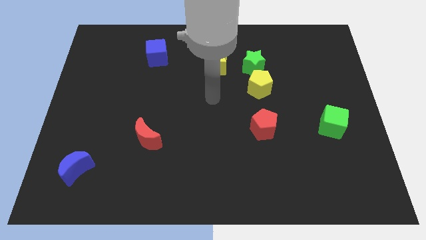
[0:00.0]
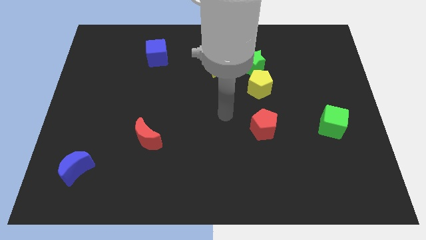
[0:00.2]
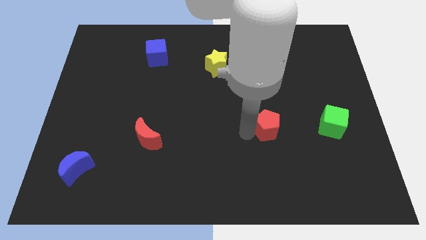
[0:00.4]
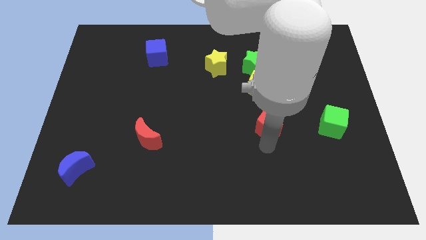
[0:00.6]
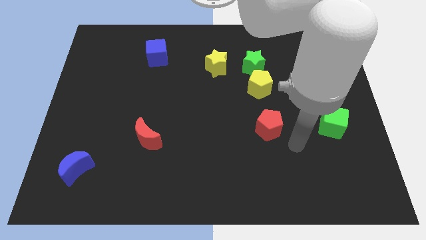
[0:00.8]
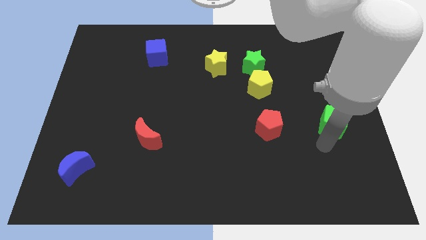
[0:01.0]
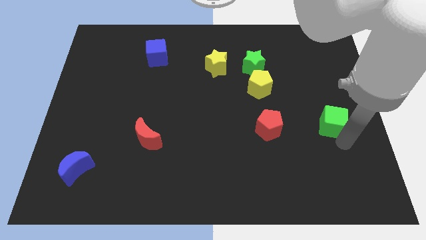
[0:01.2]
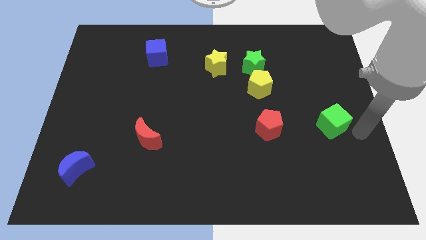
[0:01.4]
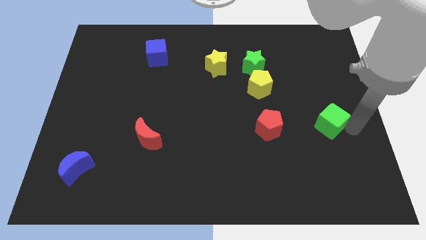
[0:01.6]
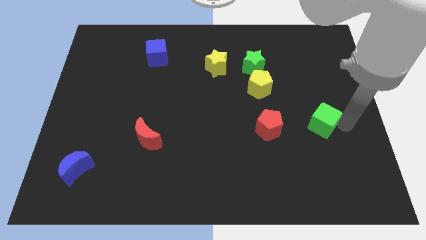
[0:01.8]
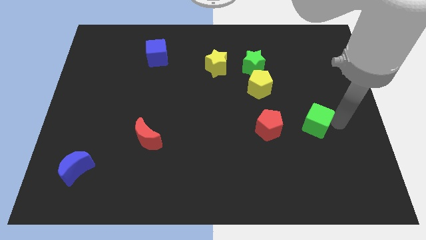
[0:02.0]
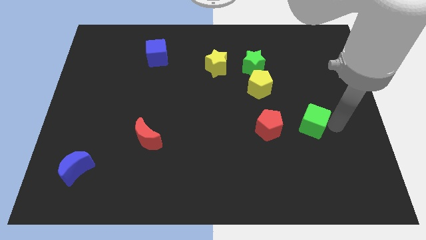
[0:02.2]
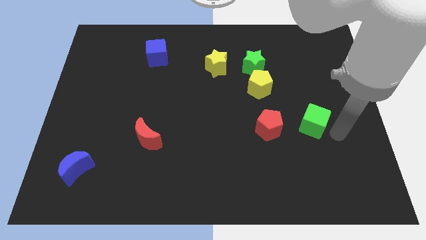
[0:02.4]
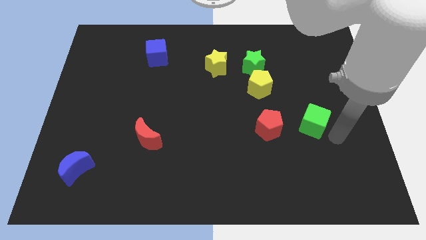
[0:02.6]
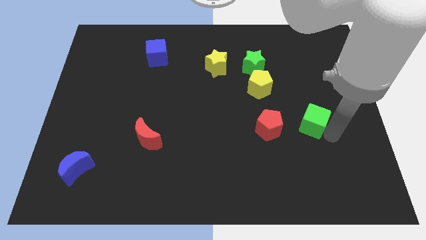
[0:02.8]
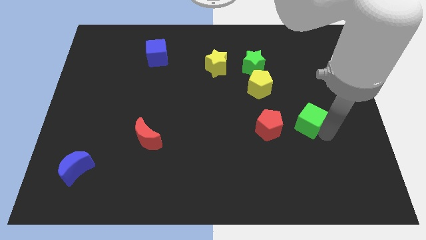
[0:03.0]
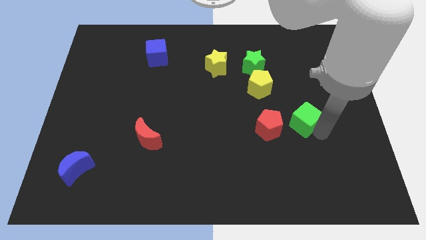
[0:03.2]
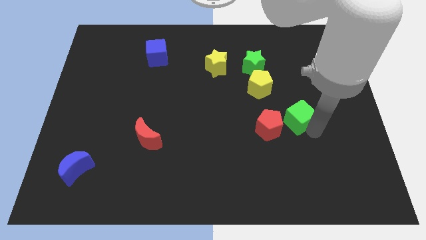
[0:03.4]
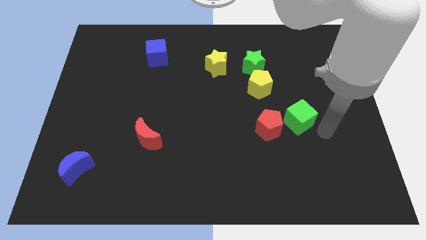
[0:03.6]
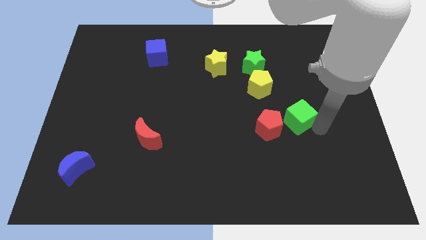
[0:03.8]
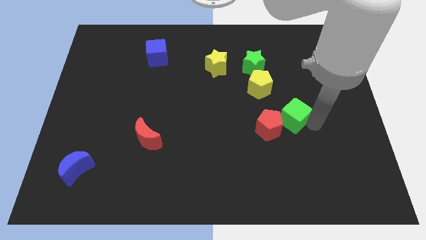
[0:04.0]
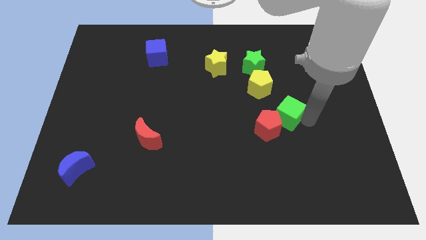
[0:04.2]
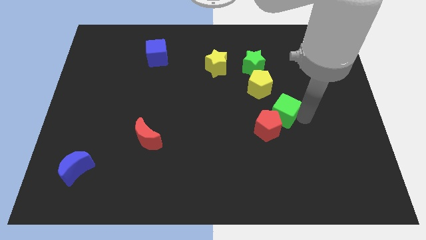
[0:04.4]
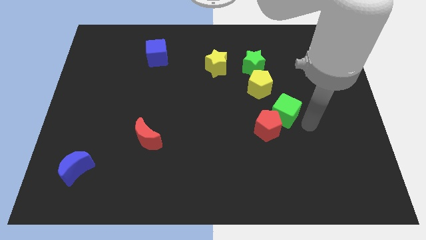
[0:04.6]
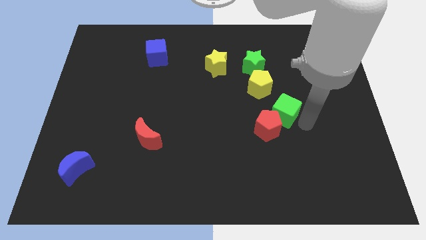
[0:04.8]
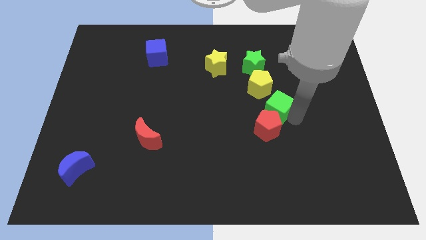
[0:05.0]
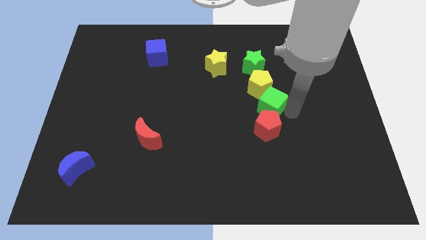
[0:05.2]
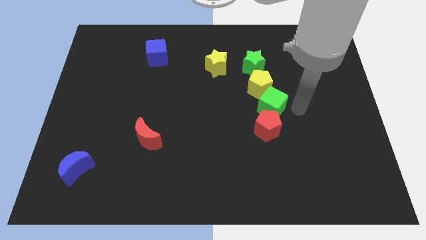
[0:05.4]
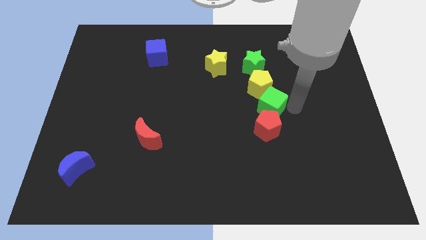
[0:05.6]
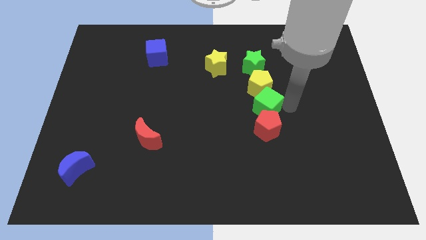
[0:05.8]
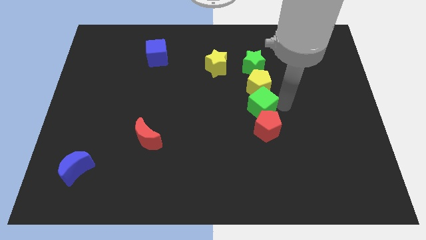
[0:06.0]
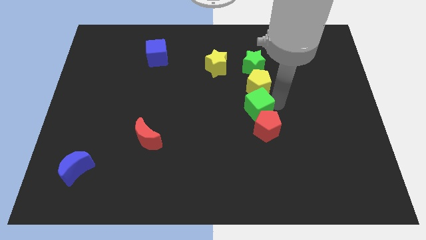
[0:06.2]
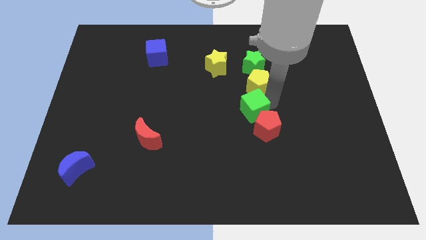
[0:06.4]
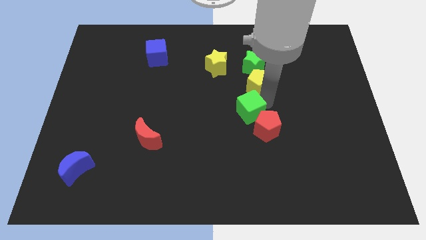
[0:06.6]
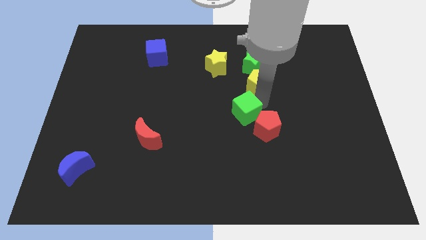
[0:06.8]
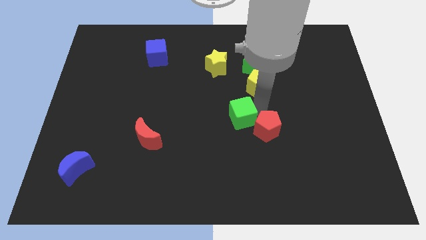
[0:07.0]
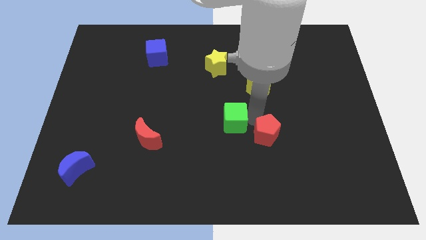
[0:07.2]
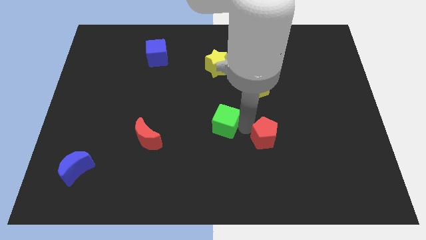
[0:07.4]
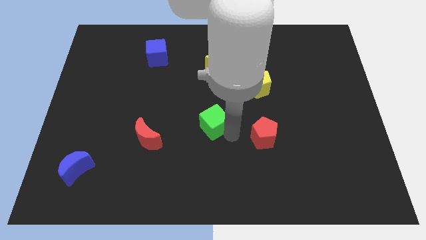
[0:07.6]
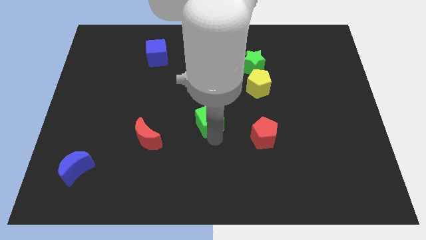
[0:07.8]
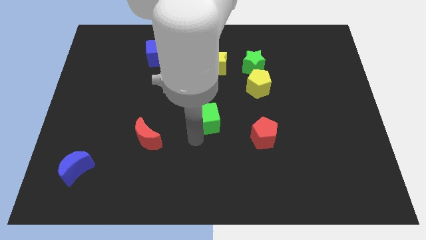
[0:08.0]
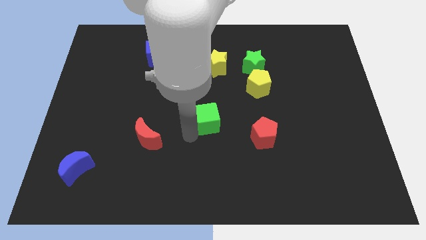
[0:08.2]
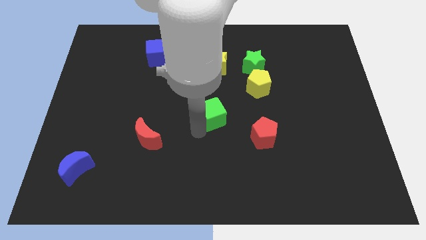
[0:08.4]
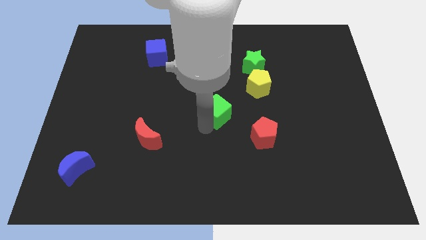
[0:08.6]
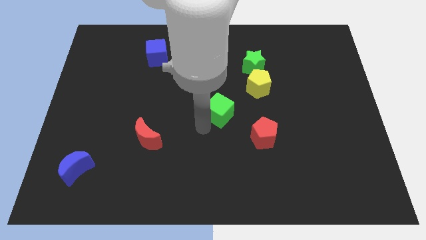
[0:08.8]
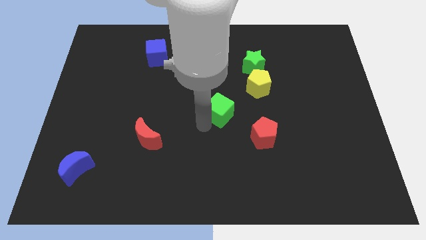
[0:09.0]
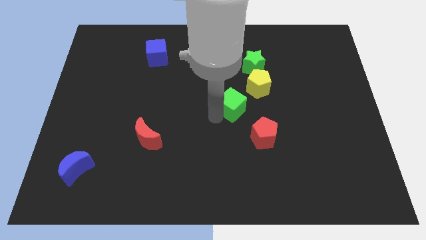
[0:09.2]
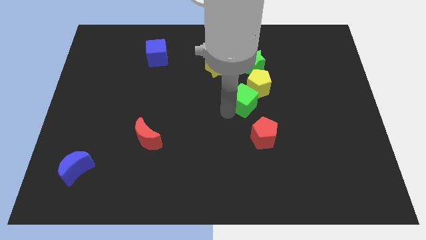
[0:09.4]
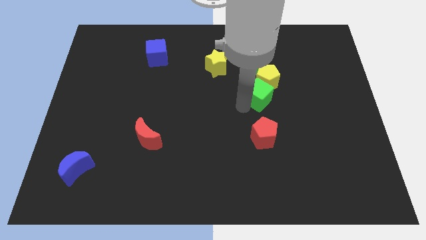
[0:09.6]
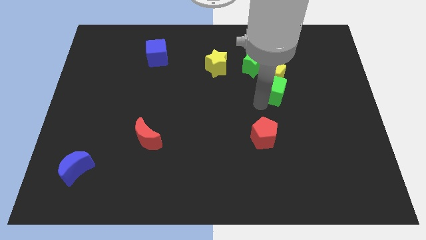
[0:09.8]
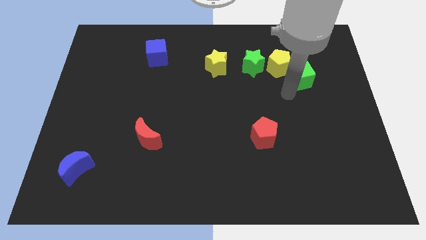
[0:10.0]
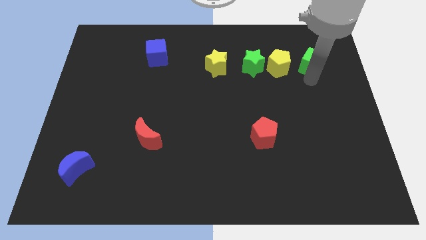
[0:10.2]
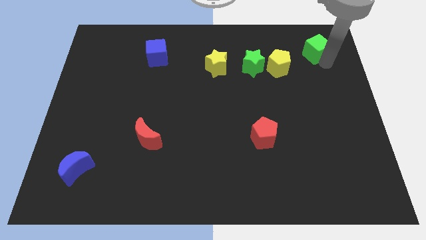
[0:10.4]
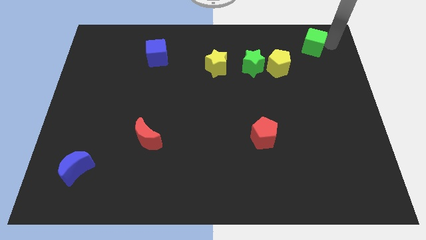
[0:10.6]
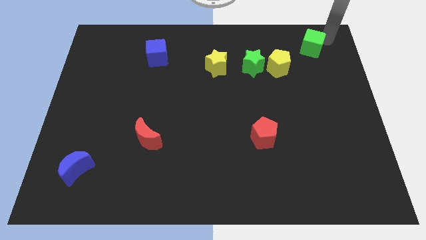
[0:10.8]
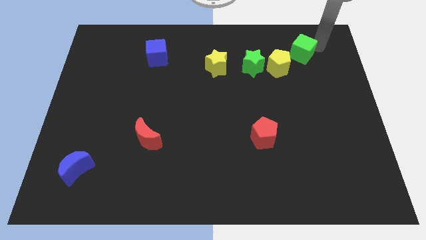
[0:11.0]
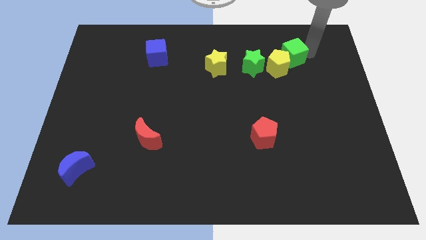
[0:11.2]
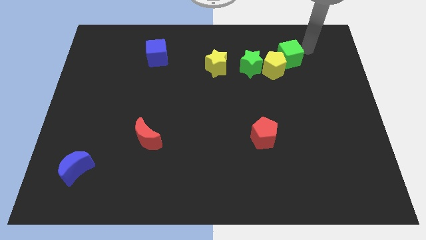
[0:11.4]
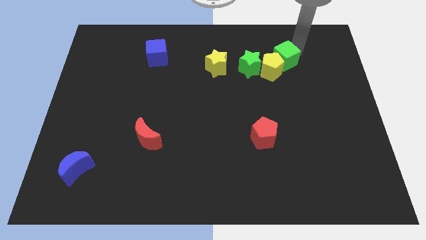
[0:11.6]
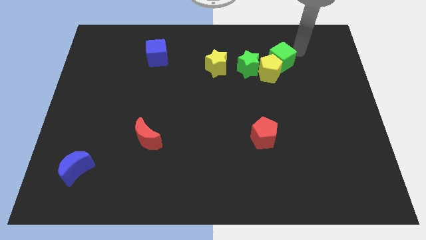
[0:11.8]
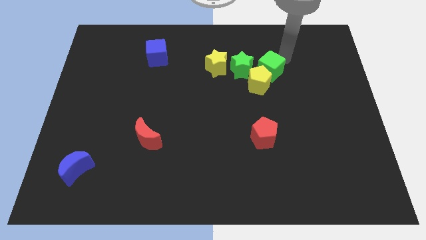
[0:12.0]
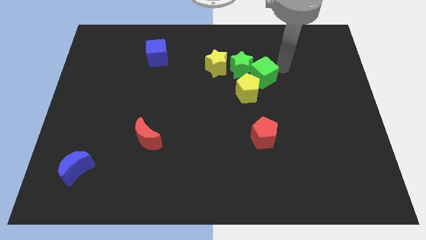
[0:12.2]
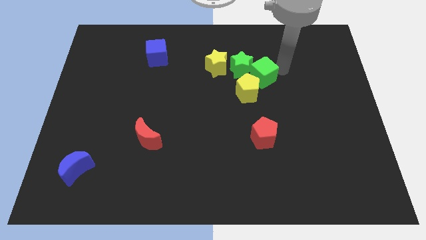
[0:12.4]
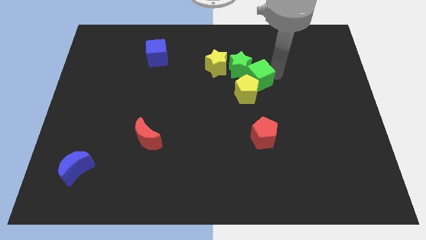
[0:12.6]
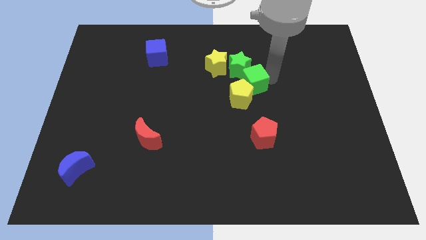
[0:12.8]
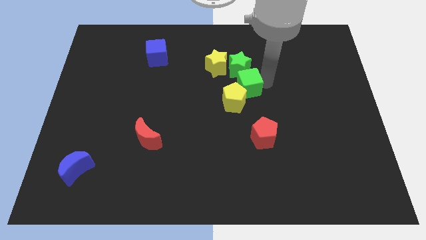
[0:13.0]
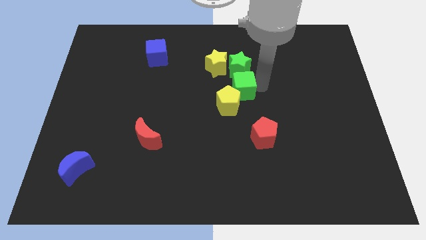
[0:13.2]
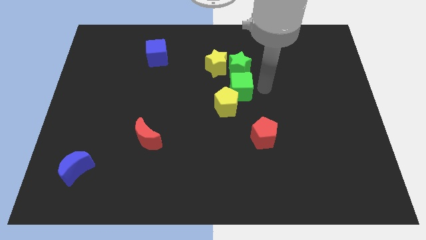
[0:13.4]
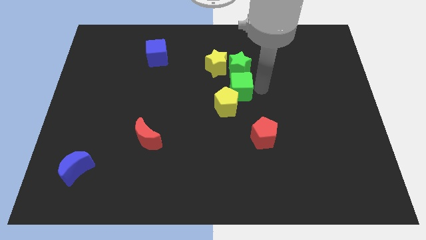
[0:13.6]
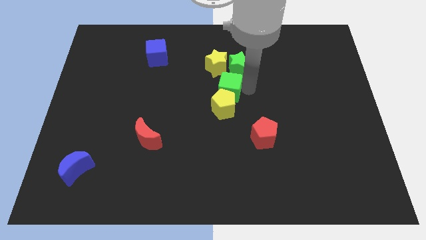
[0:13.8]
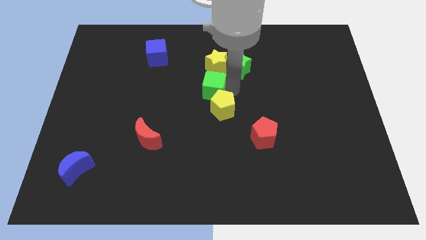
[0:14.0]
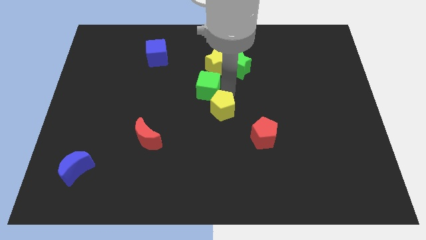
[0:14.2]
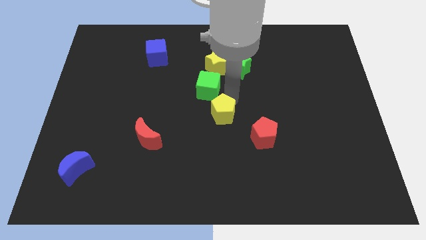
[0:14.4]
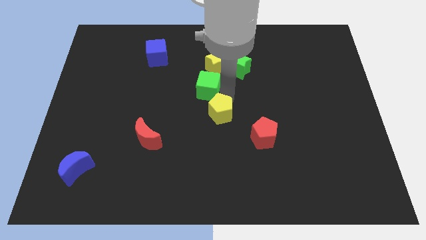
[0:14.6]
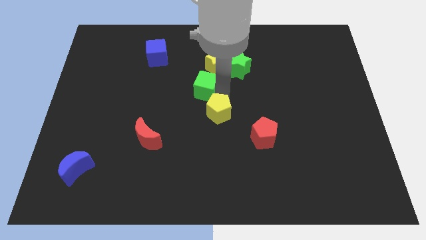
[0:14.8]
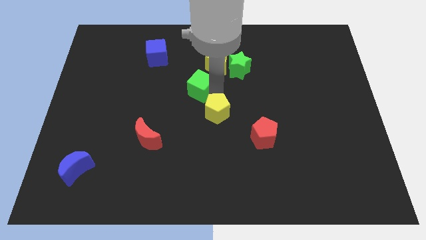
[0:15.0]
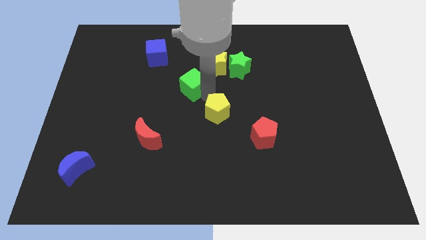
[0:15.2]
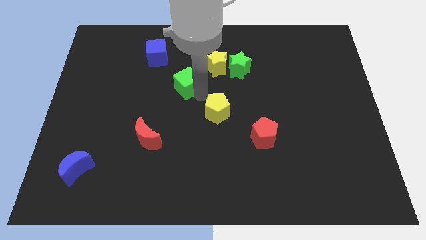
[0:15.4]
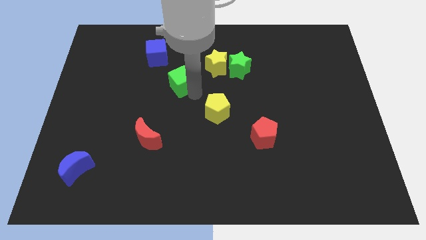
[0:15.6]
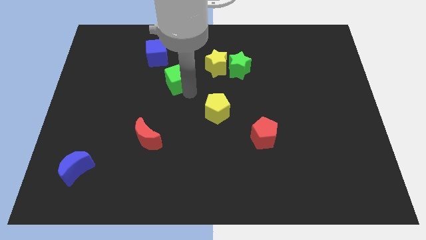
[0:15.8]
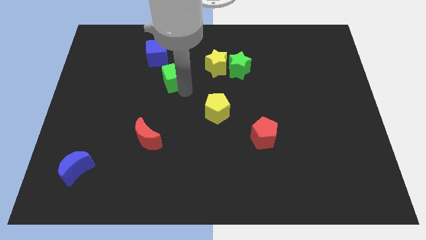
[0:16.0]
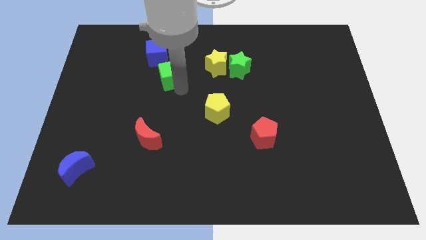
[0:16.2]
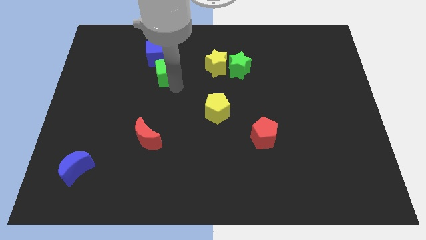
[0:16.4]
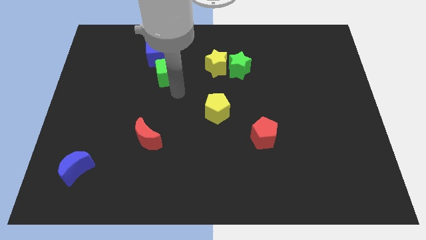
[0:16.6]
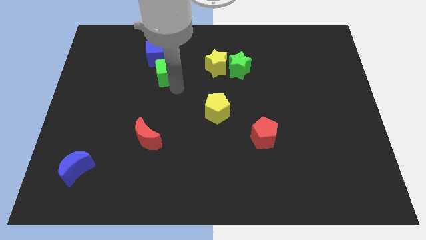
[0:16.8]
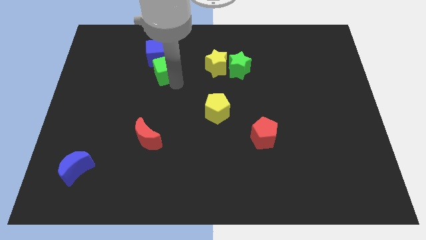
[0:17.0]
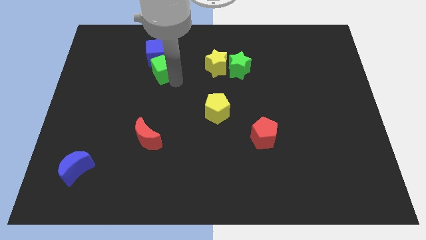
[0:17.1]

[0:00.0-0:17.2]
move the green cube next to the blue cube
